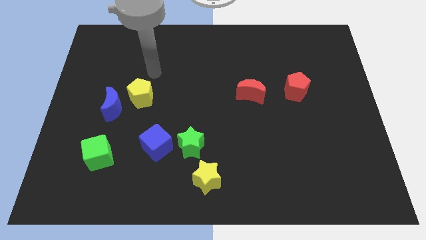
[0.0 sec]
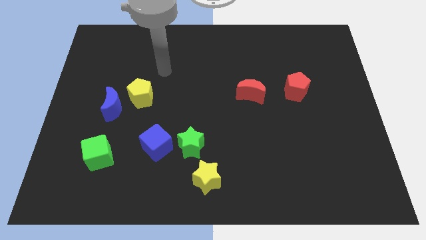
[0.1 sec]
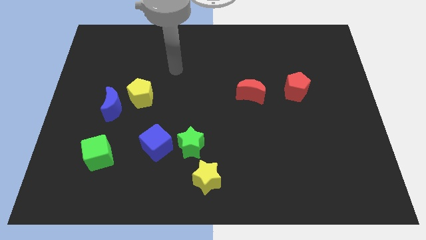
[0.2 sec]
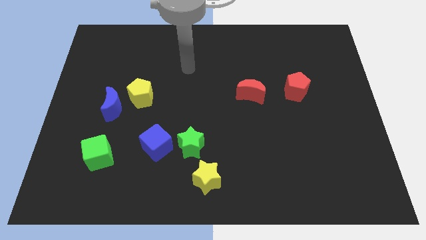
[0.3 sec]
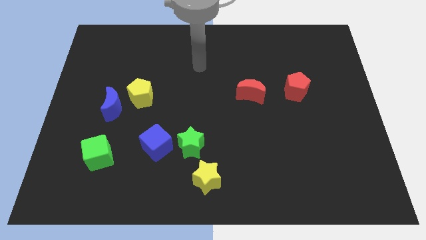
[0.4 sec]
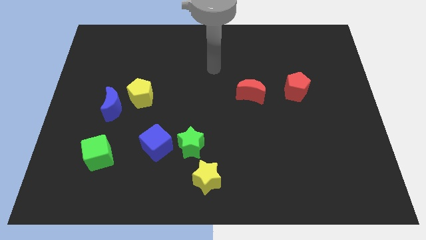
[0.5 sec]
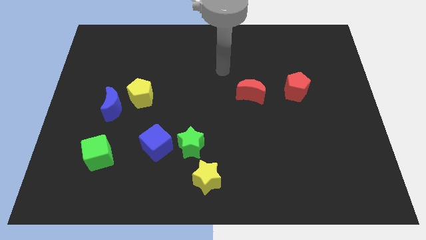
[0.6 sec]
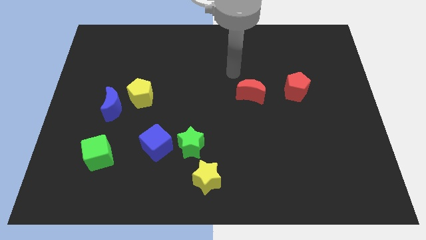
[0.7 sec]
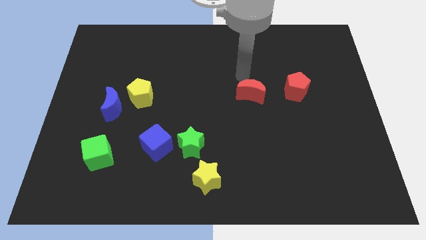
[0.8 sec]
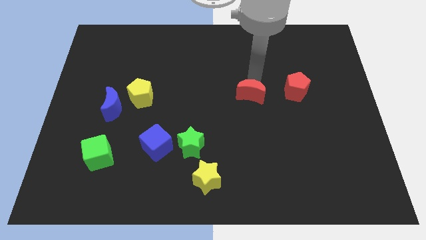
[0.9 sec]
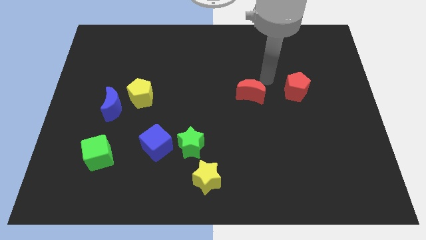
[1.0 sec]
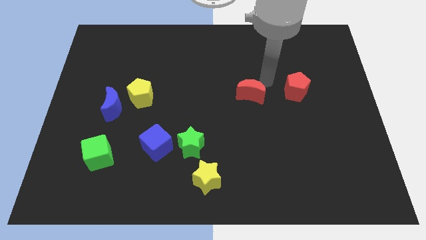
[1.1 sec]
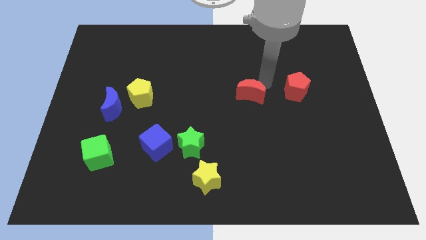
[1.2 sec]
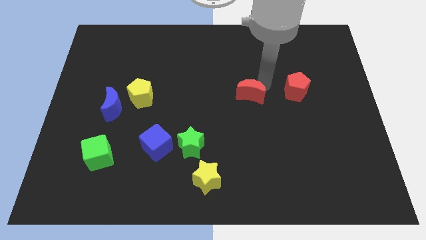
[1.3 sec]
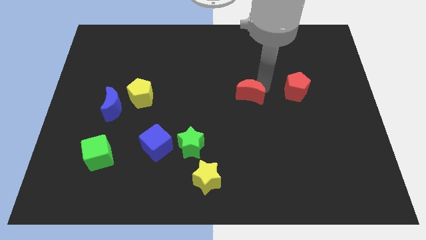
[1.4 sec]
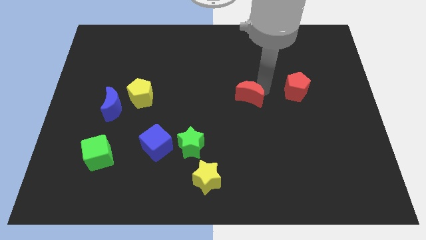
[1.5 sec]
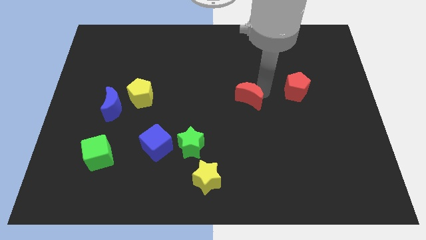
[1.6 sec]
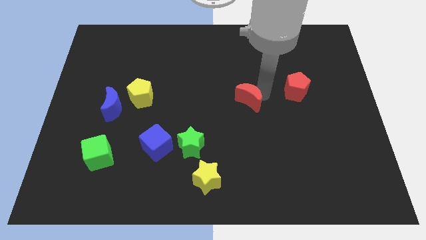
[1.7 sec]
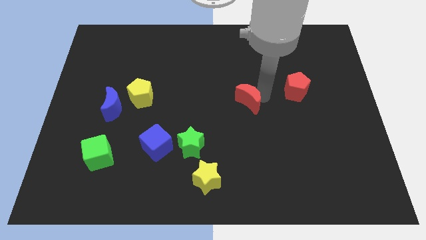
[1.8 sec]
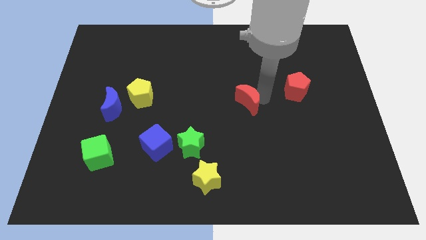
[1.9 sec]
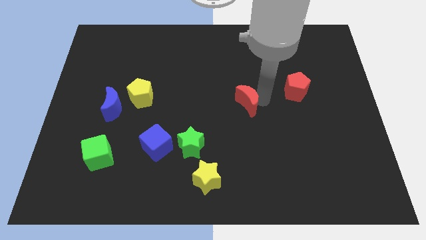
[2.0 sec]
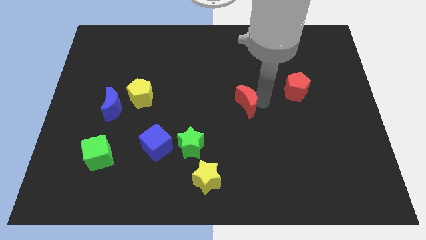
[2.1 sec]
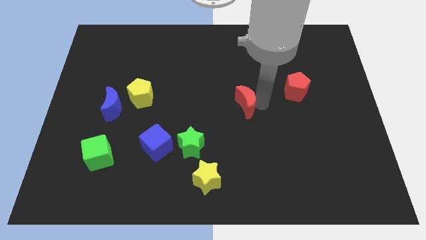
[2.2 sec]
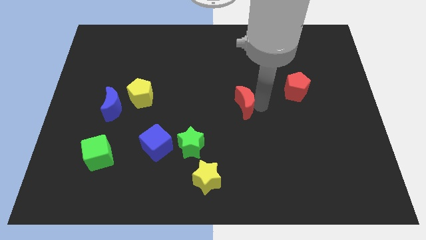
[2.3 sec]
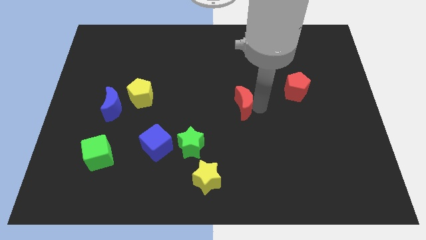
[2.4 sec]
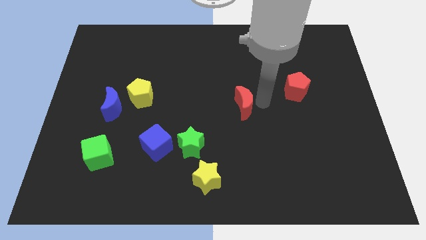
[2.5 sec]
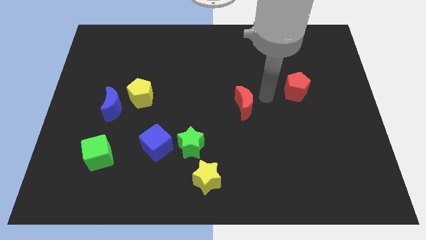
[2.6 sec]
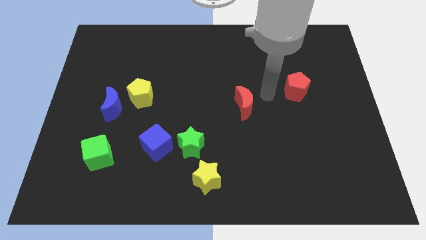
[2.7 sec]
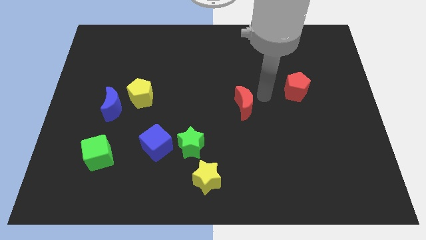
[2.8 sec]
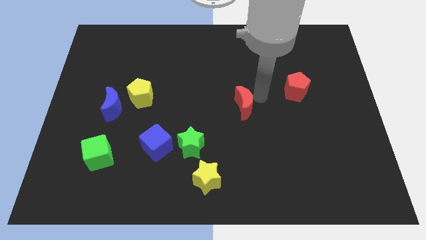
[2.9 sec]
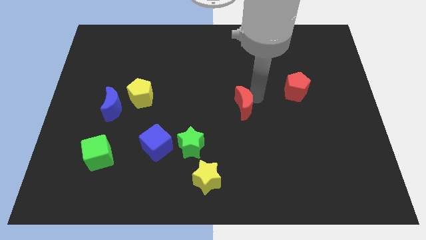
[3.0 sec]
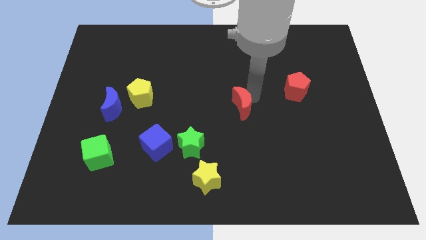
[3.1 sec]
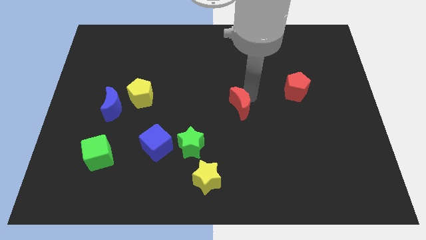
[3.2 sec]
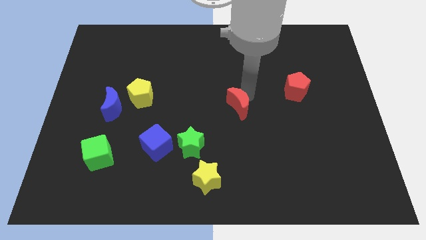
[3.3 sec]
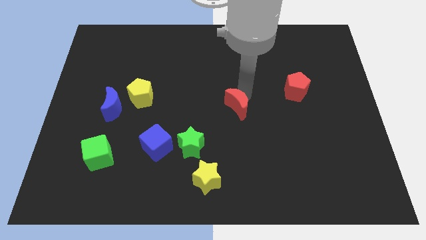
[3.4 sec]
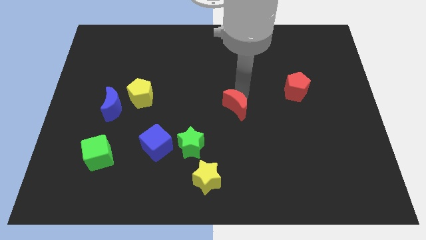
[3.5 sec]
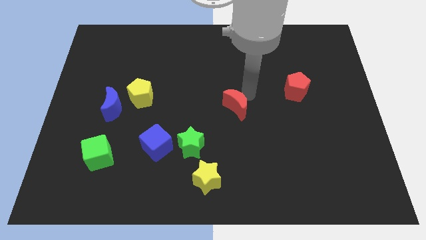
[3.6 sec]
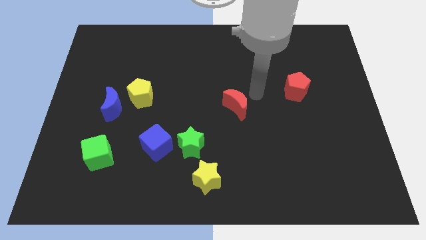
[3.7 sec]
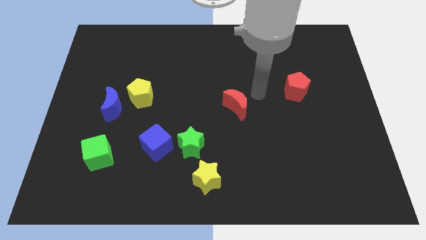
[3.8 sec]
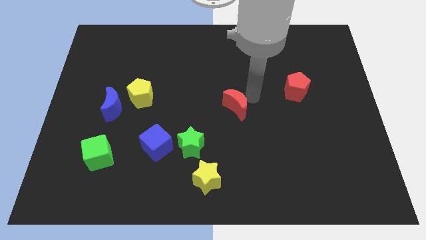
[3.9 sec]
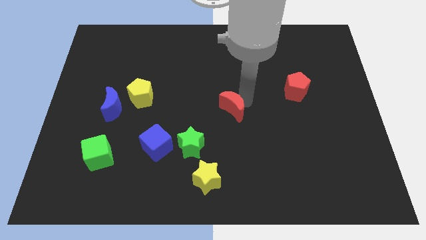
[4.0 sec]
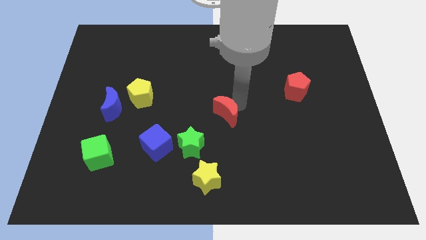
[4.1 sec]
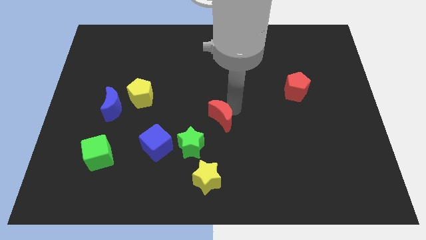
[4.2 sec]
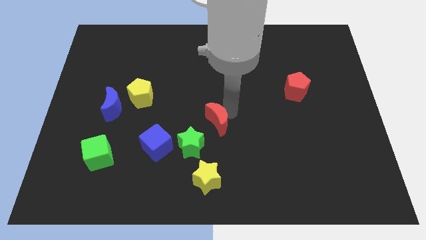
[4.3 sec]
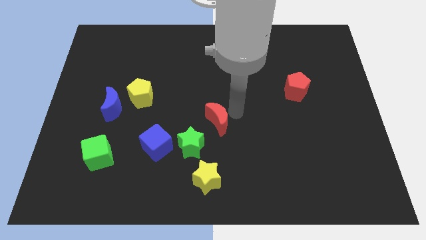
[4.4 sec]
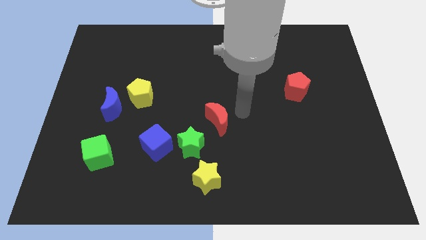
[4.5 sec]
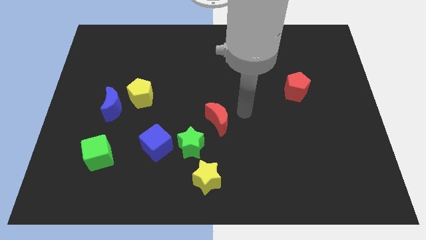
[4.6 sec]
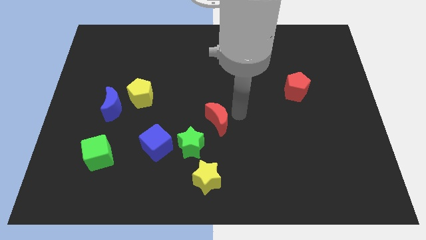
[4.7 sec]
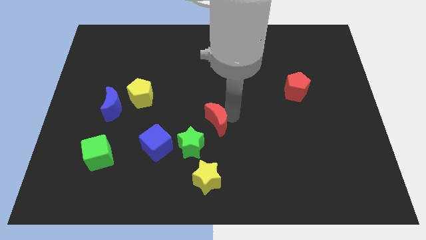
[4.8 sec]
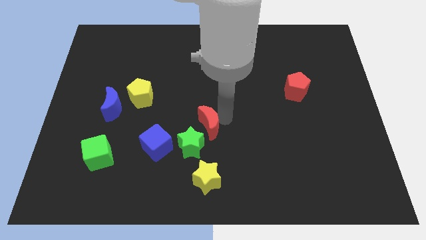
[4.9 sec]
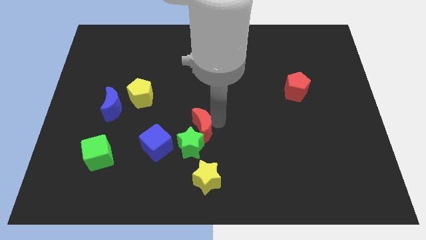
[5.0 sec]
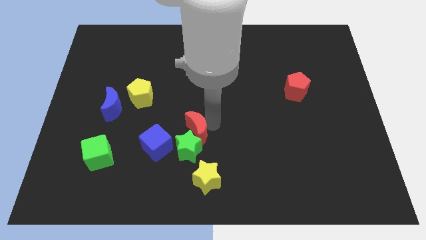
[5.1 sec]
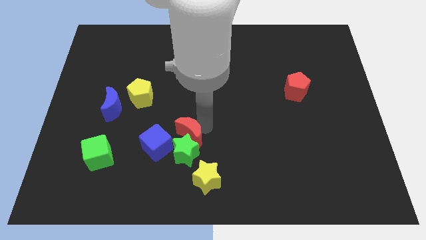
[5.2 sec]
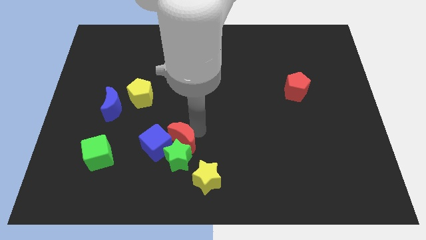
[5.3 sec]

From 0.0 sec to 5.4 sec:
move the red moon close to the blue cube

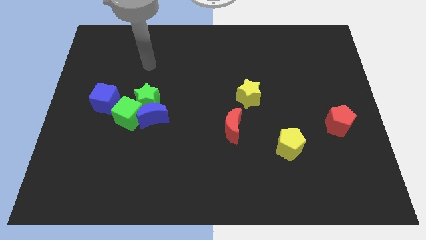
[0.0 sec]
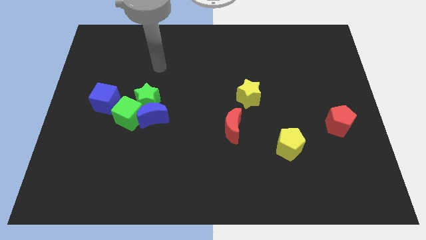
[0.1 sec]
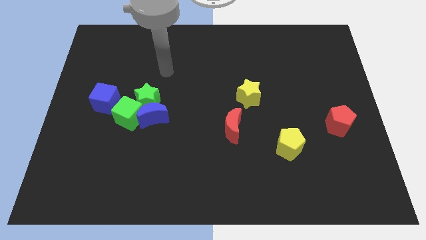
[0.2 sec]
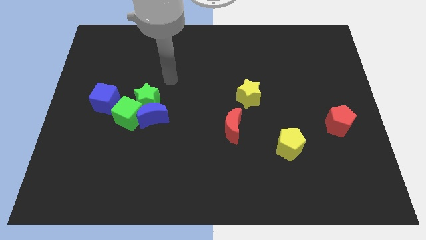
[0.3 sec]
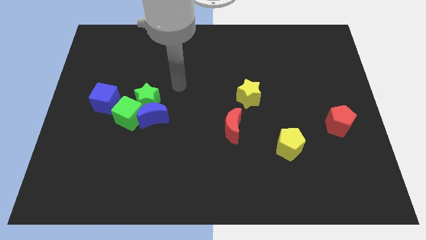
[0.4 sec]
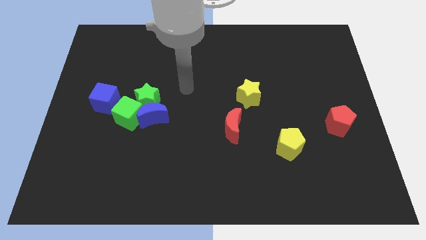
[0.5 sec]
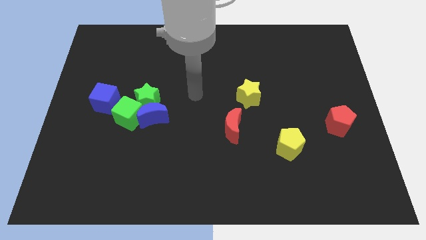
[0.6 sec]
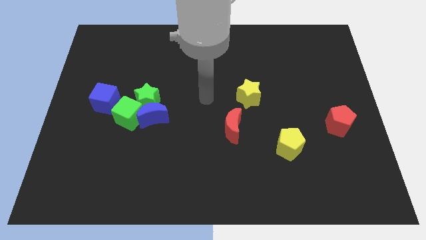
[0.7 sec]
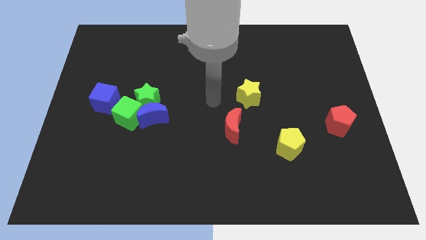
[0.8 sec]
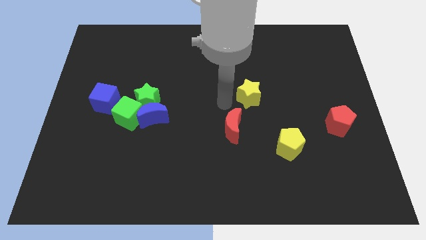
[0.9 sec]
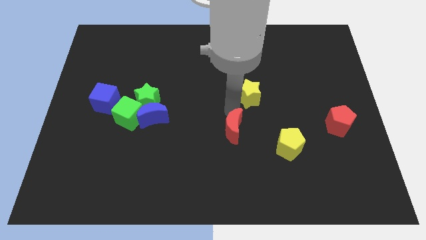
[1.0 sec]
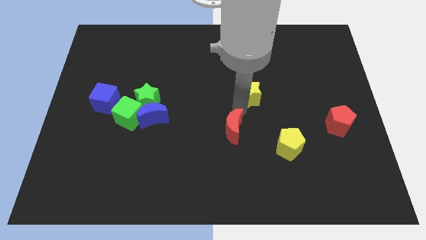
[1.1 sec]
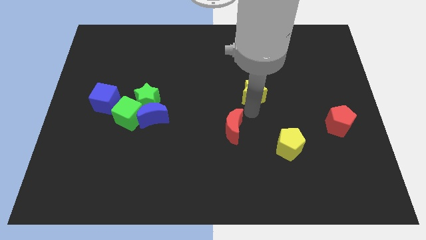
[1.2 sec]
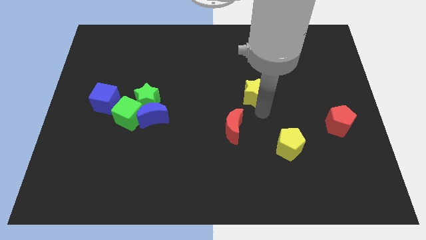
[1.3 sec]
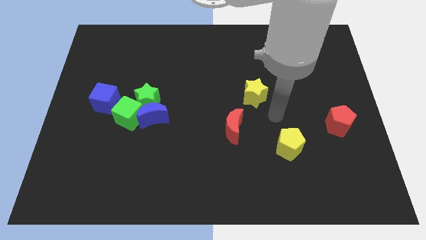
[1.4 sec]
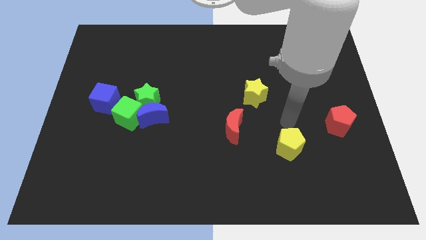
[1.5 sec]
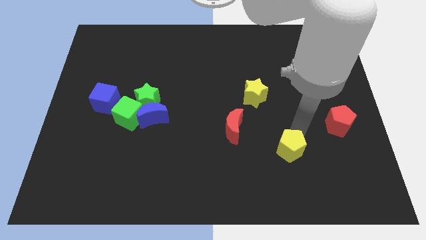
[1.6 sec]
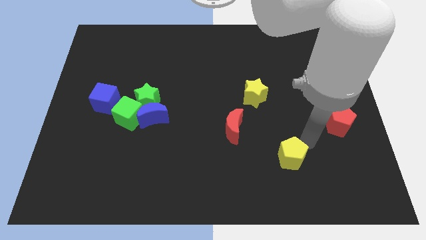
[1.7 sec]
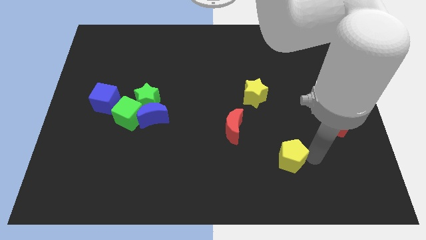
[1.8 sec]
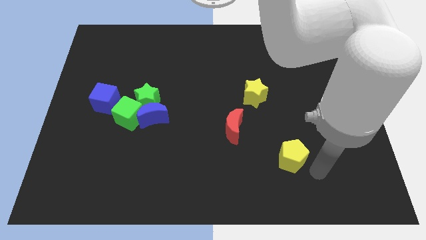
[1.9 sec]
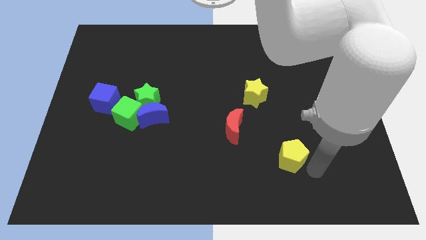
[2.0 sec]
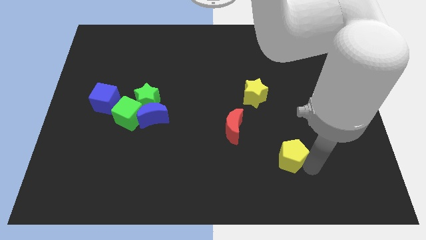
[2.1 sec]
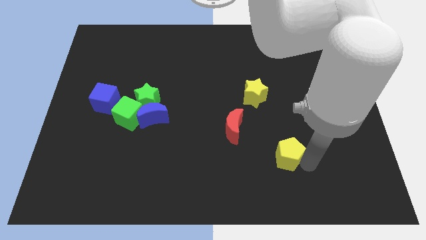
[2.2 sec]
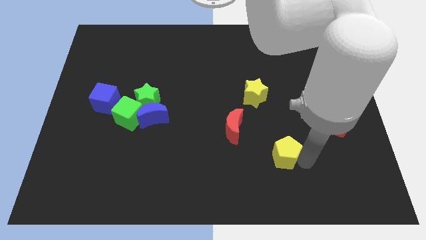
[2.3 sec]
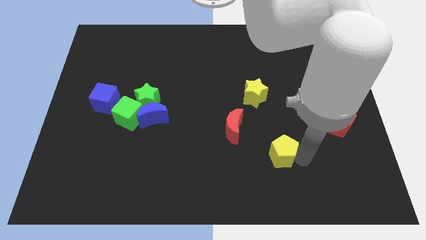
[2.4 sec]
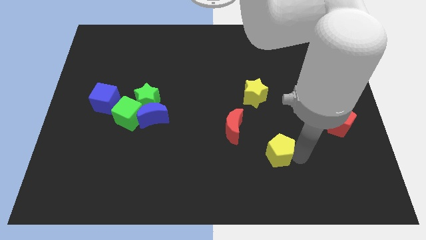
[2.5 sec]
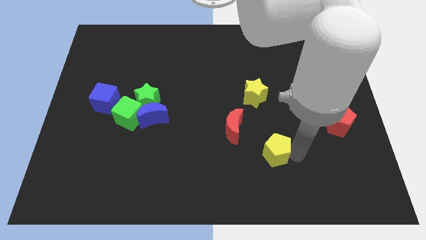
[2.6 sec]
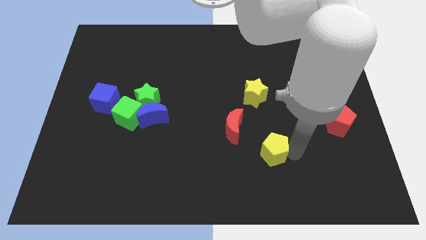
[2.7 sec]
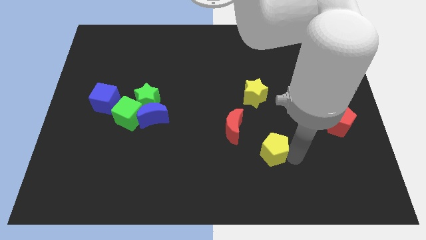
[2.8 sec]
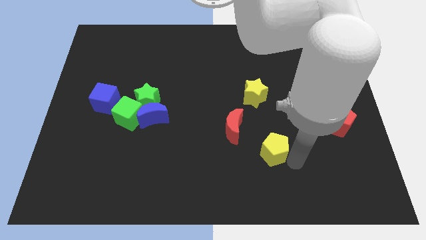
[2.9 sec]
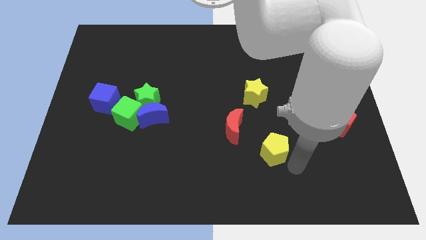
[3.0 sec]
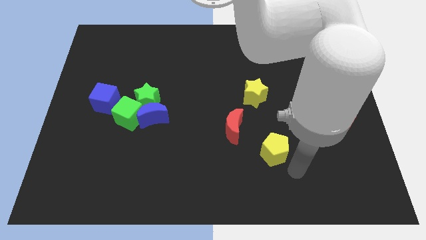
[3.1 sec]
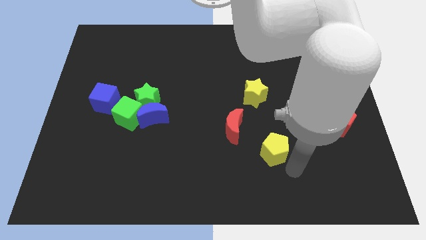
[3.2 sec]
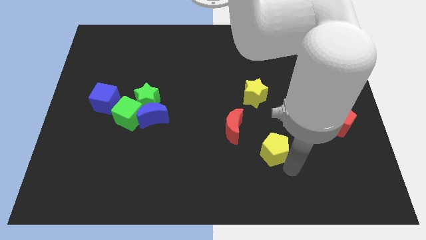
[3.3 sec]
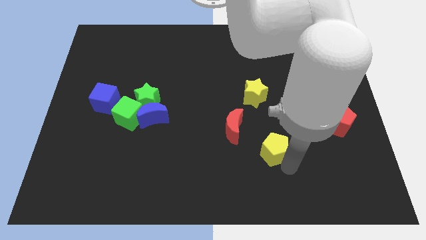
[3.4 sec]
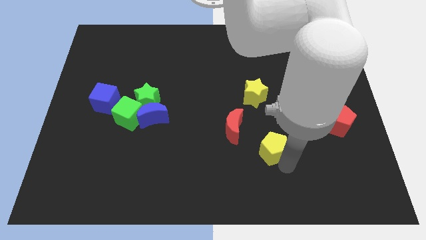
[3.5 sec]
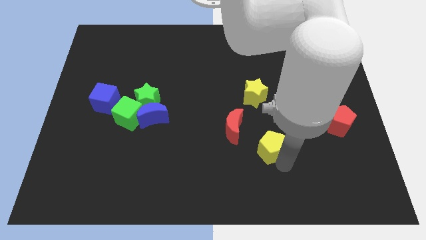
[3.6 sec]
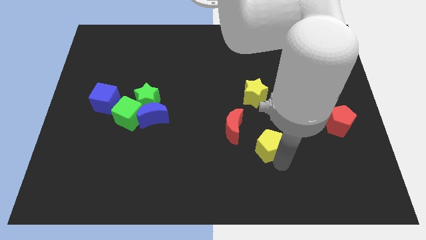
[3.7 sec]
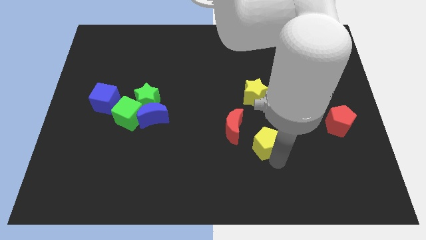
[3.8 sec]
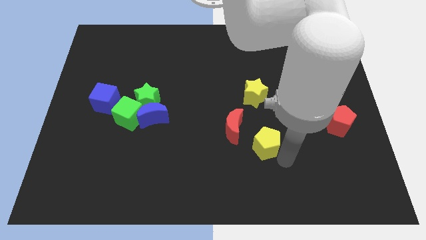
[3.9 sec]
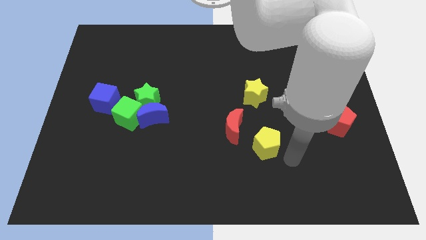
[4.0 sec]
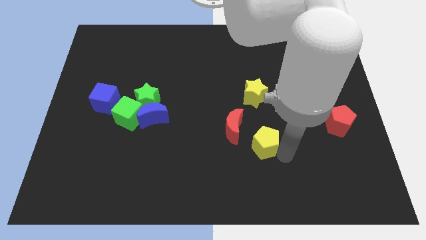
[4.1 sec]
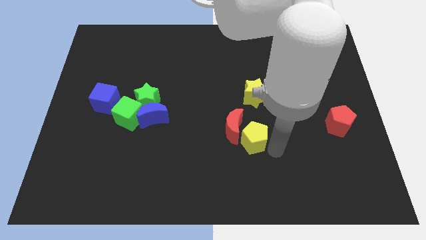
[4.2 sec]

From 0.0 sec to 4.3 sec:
move the yellow pentagon next to the red moon
